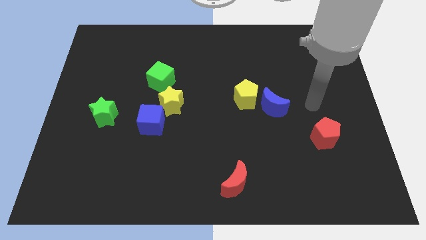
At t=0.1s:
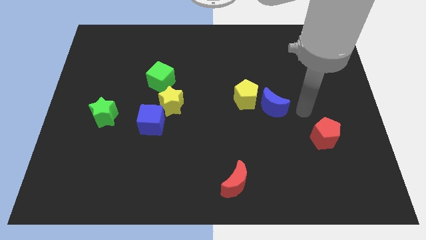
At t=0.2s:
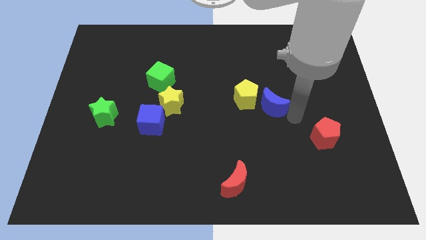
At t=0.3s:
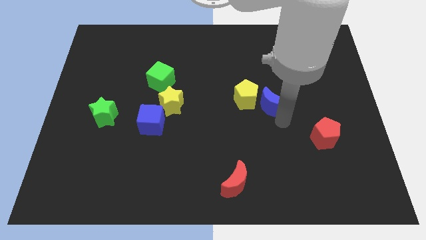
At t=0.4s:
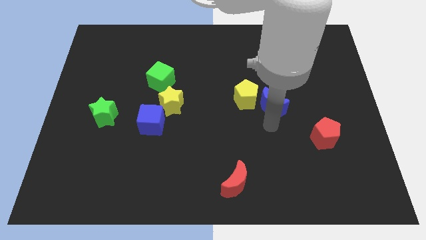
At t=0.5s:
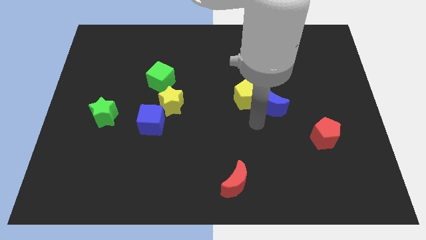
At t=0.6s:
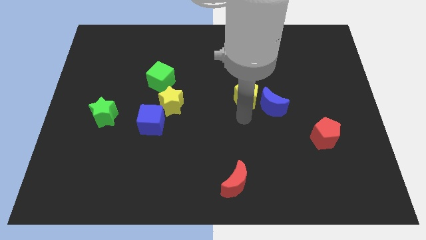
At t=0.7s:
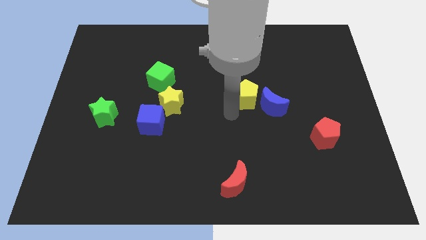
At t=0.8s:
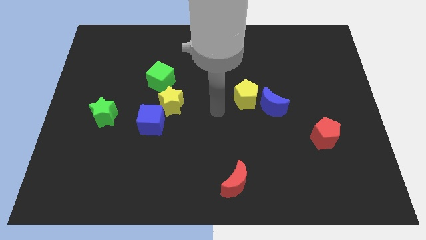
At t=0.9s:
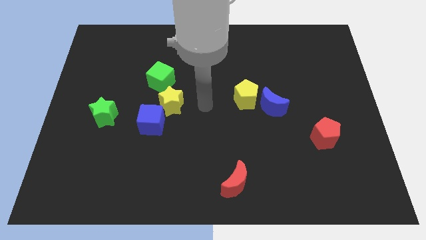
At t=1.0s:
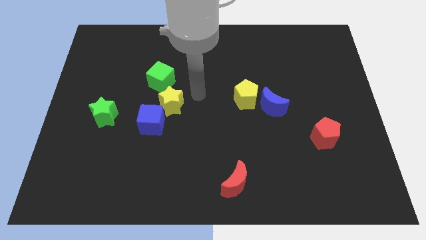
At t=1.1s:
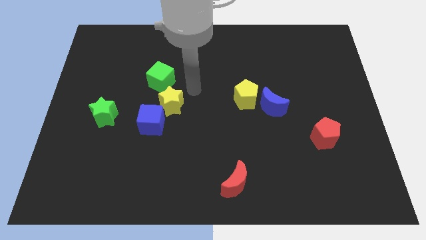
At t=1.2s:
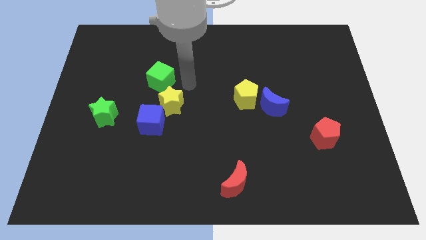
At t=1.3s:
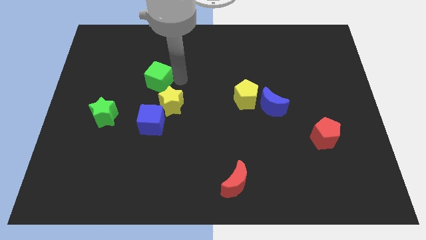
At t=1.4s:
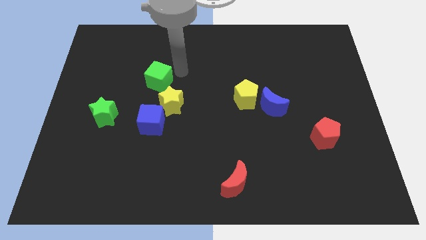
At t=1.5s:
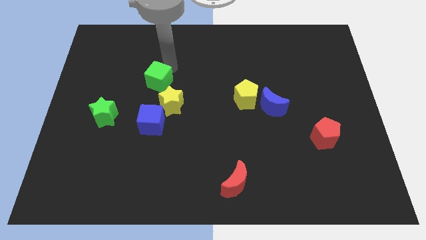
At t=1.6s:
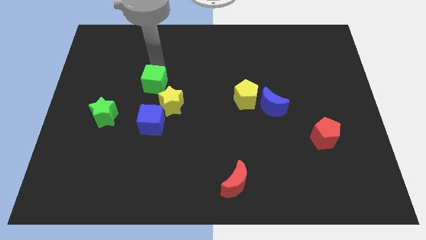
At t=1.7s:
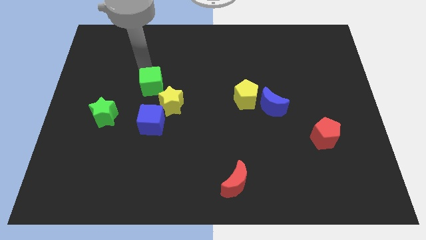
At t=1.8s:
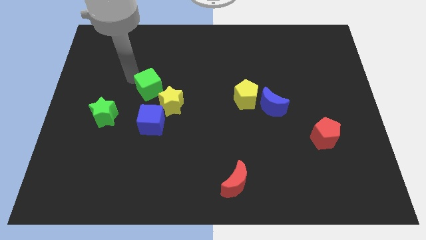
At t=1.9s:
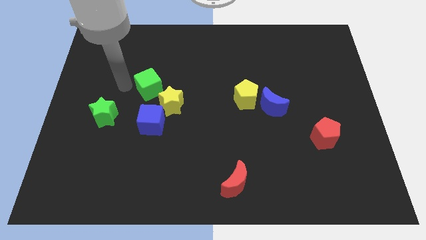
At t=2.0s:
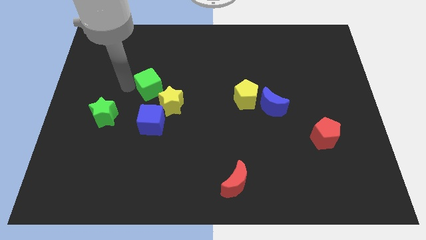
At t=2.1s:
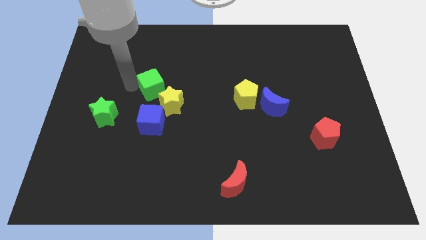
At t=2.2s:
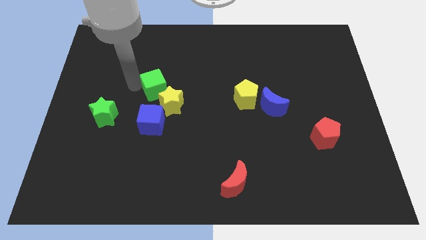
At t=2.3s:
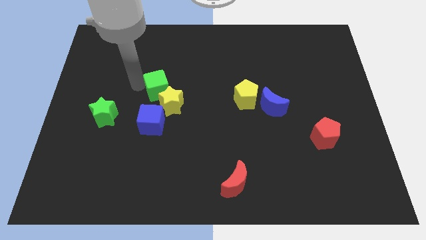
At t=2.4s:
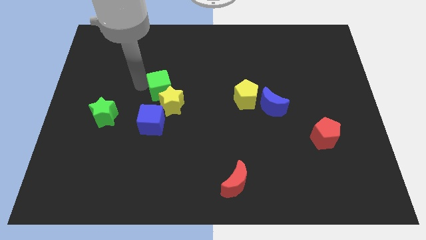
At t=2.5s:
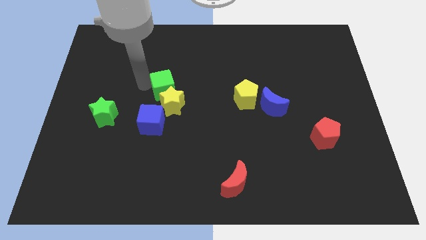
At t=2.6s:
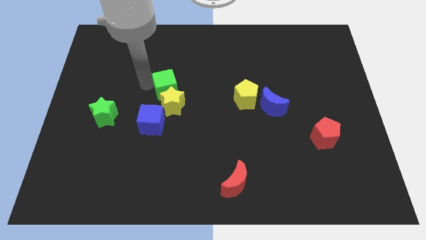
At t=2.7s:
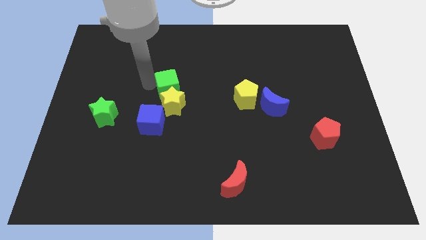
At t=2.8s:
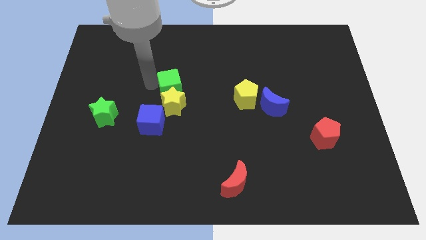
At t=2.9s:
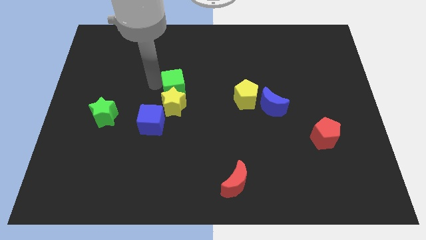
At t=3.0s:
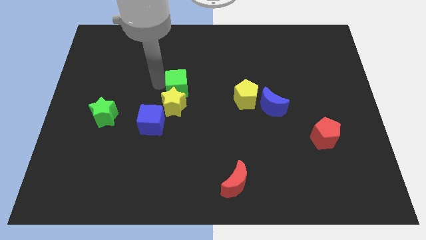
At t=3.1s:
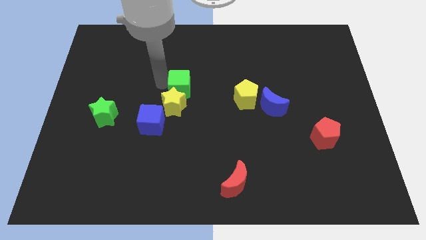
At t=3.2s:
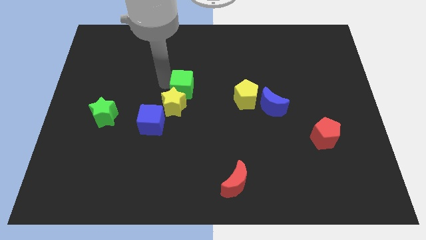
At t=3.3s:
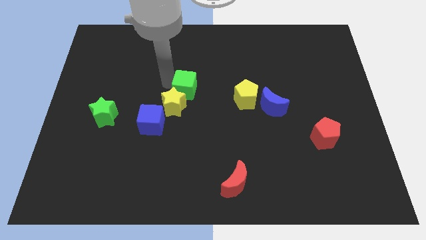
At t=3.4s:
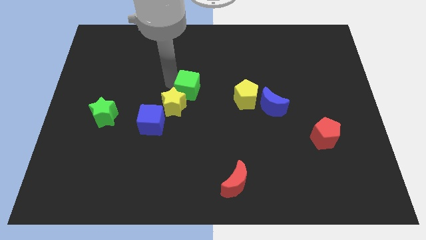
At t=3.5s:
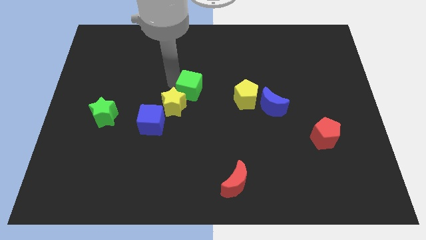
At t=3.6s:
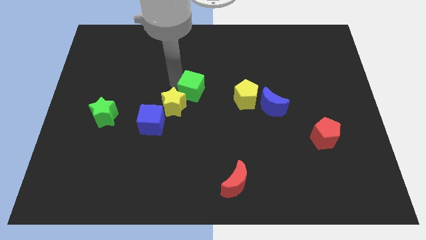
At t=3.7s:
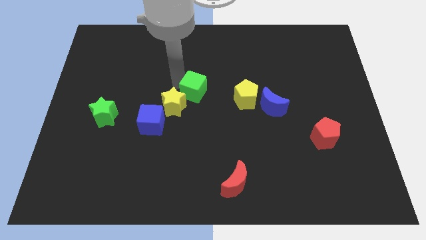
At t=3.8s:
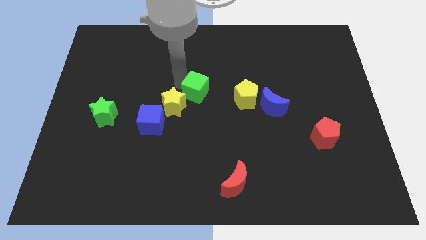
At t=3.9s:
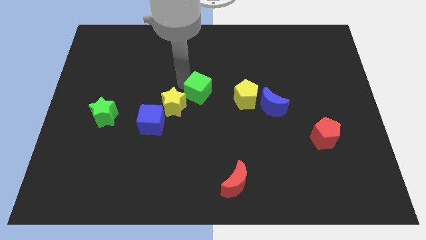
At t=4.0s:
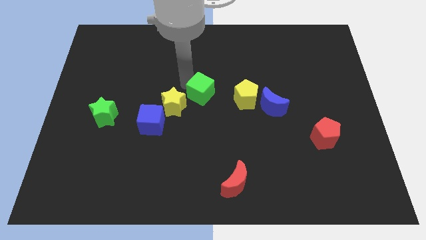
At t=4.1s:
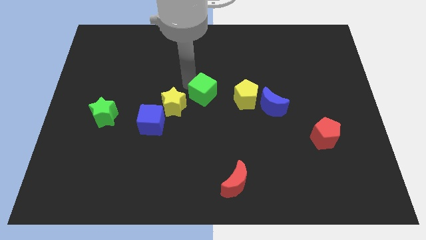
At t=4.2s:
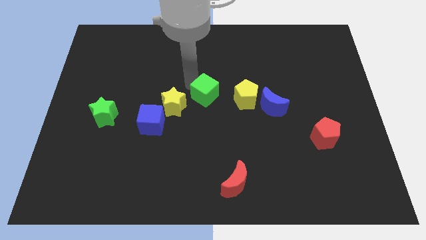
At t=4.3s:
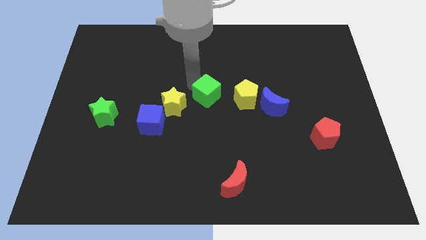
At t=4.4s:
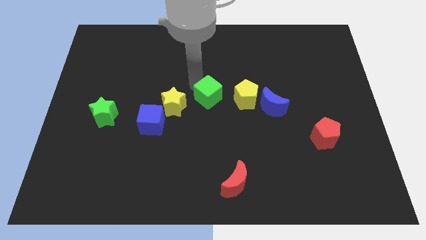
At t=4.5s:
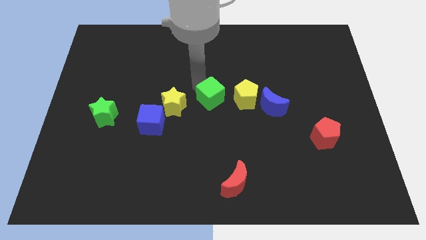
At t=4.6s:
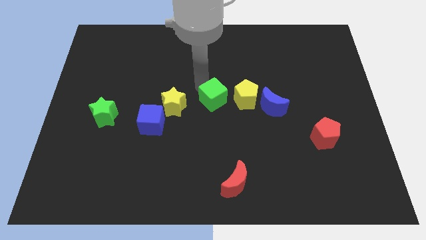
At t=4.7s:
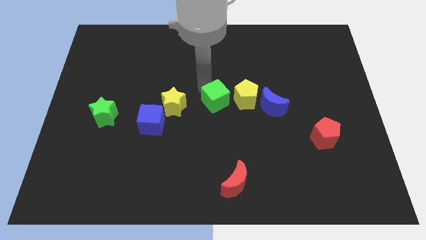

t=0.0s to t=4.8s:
slide the green cube to the bottom left side of the yellow pentagon

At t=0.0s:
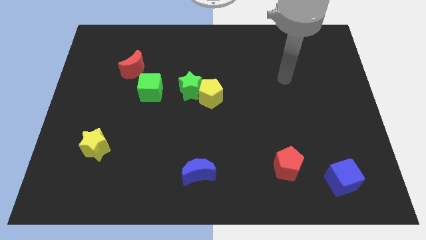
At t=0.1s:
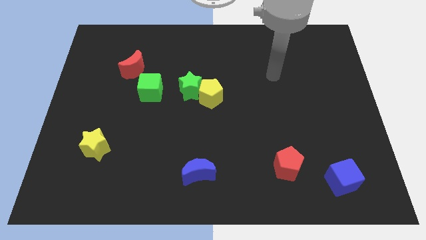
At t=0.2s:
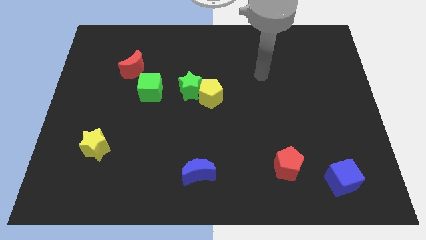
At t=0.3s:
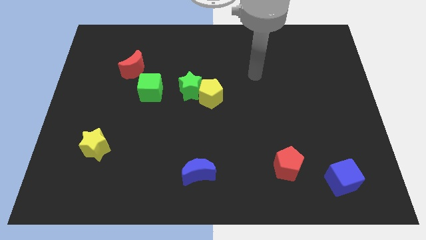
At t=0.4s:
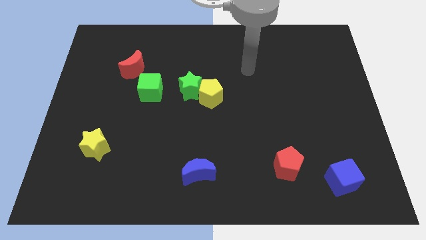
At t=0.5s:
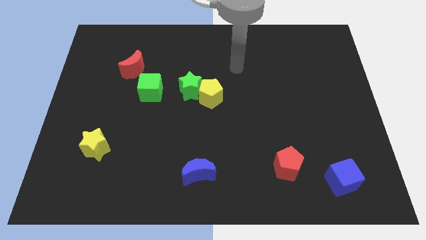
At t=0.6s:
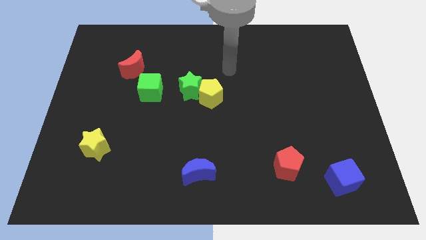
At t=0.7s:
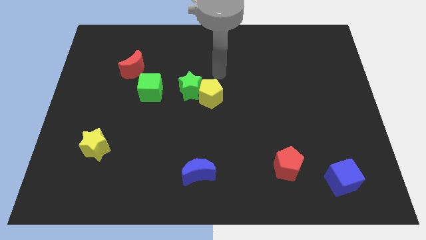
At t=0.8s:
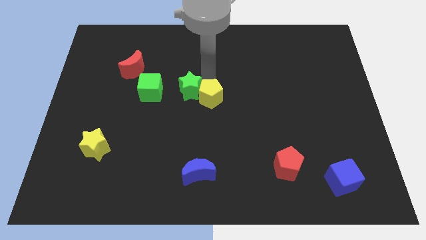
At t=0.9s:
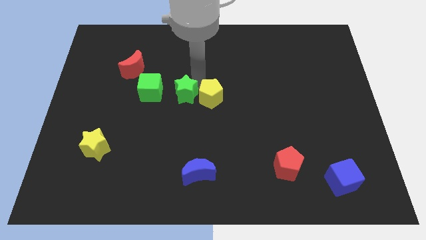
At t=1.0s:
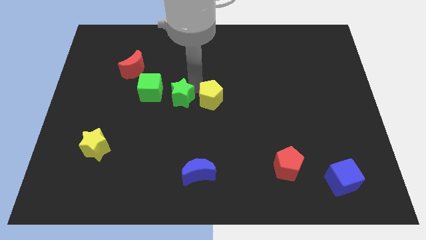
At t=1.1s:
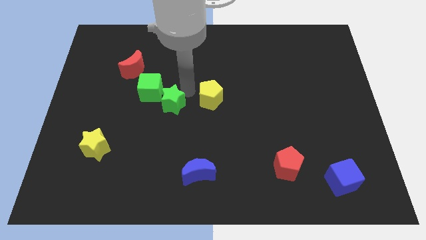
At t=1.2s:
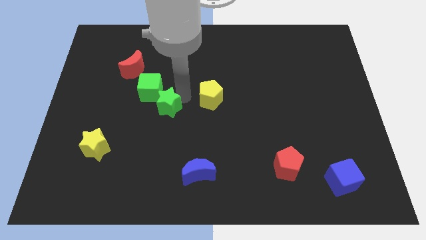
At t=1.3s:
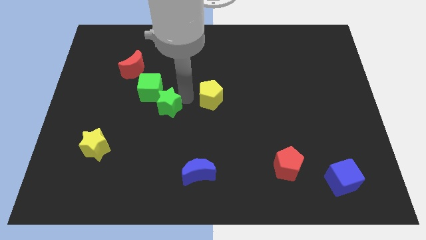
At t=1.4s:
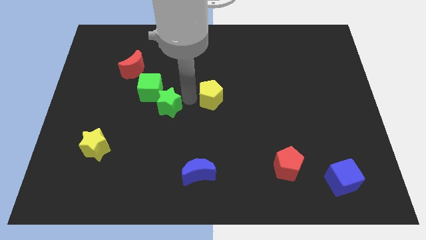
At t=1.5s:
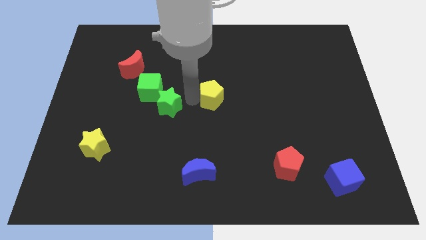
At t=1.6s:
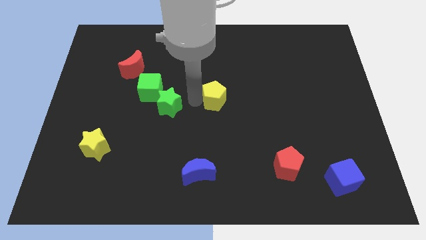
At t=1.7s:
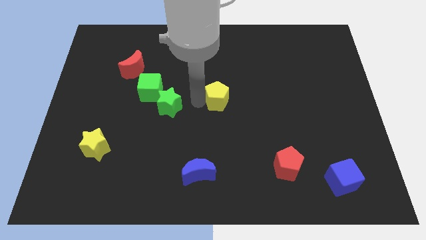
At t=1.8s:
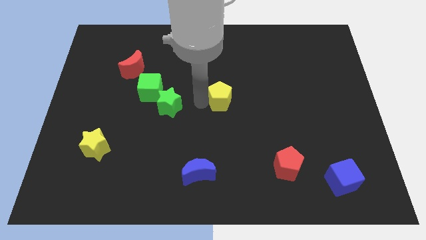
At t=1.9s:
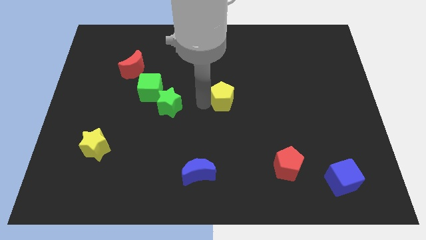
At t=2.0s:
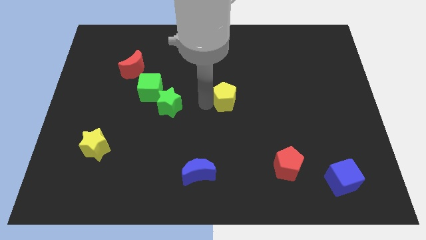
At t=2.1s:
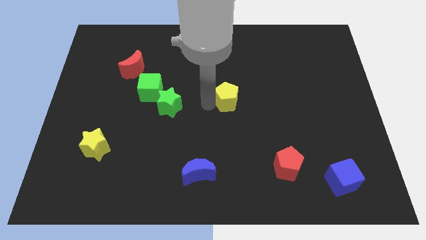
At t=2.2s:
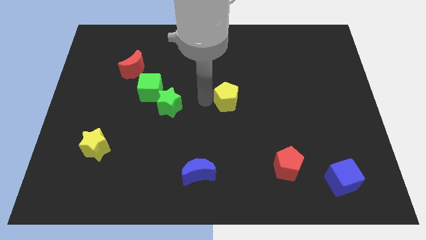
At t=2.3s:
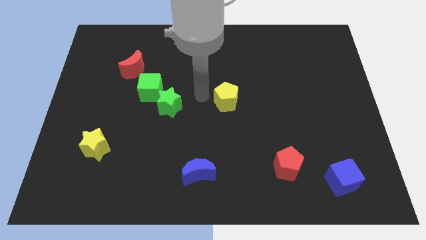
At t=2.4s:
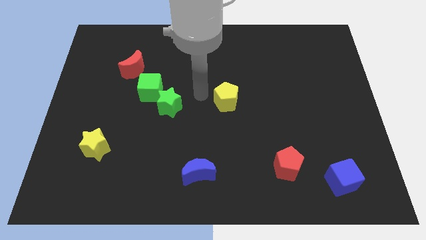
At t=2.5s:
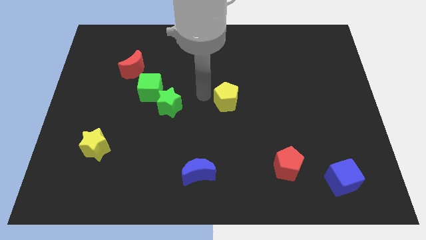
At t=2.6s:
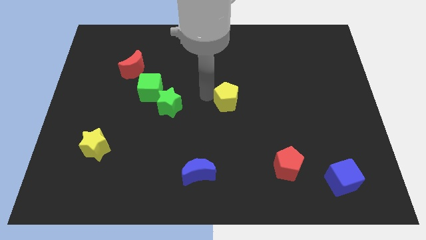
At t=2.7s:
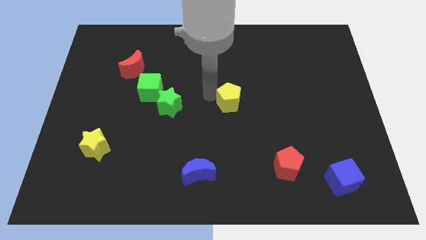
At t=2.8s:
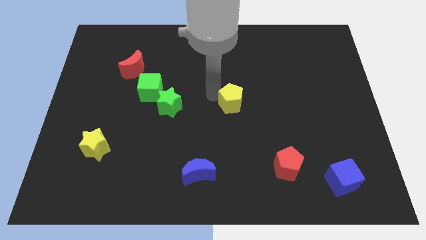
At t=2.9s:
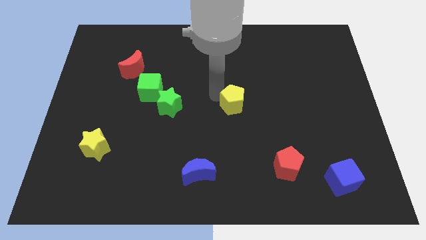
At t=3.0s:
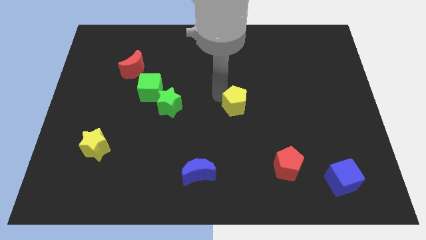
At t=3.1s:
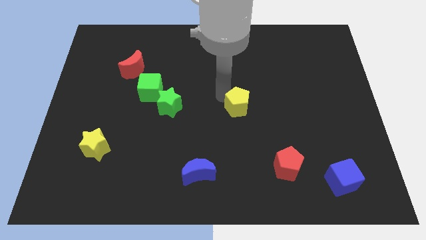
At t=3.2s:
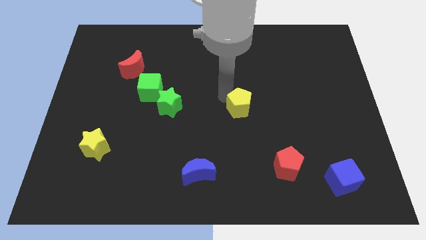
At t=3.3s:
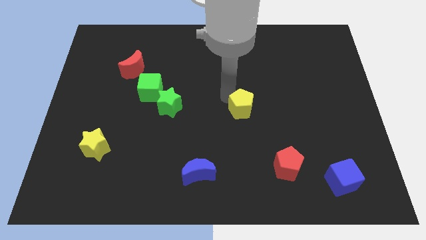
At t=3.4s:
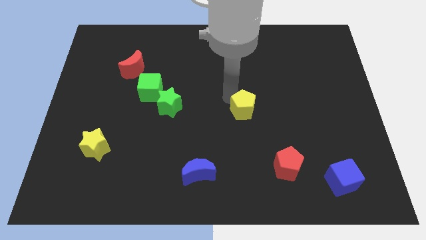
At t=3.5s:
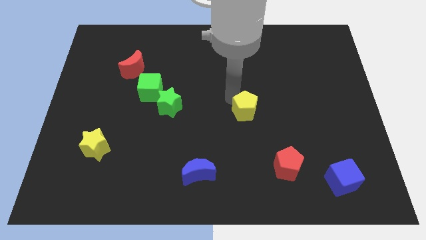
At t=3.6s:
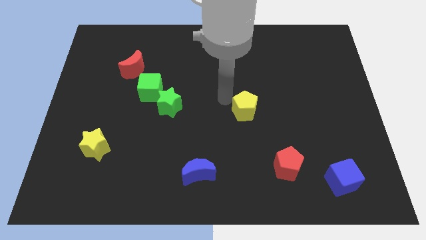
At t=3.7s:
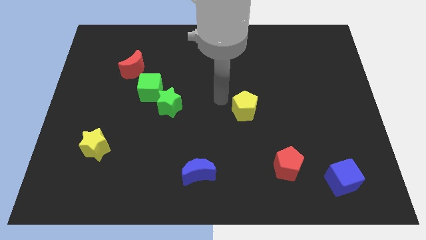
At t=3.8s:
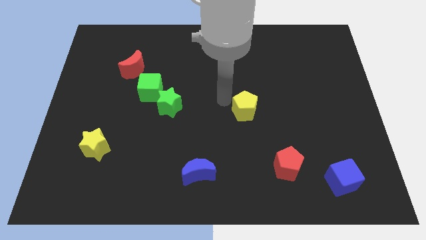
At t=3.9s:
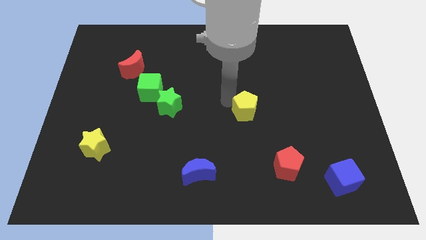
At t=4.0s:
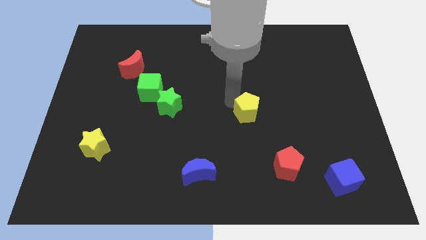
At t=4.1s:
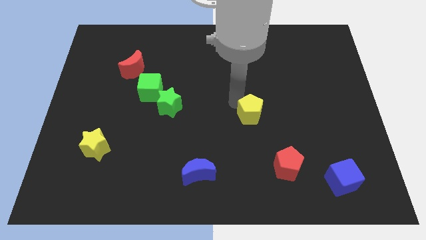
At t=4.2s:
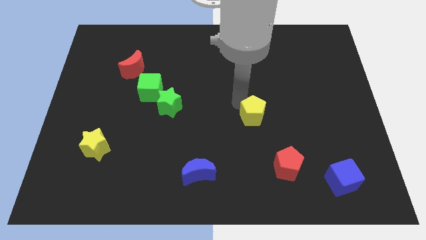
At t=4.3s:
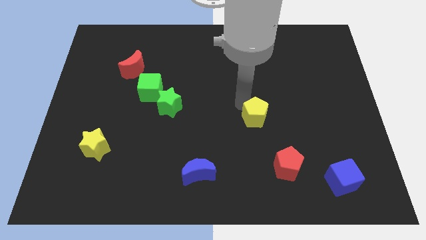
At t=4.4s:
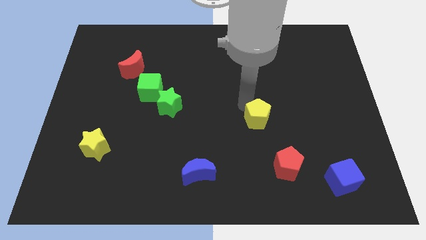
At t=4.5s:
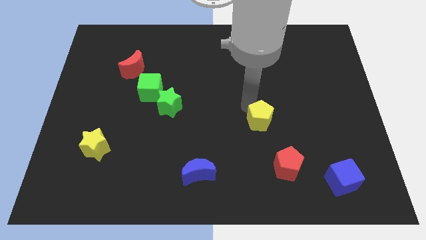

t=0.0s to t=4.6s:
slide the yellow pentagon to the top side of the red pentagon
